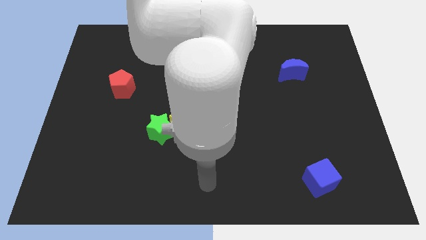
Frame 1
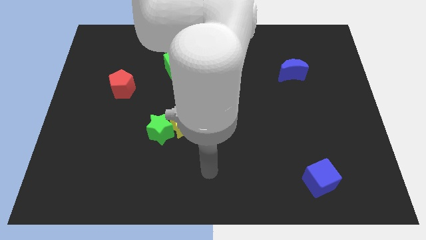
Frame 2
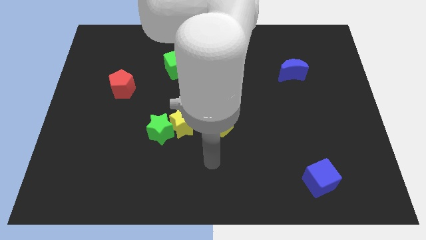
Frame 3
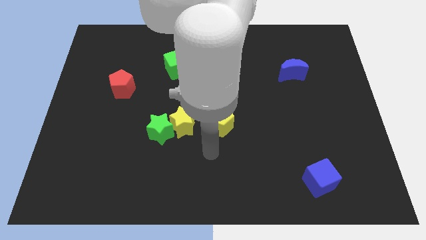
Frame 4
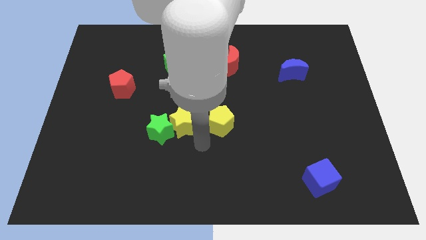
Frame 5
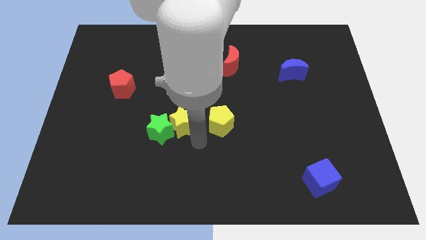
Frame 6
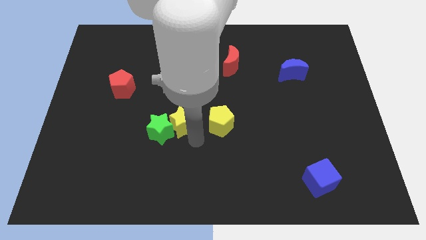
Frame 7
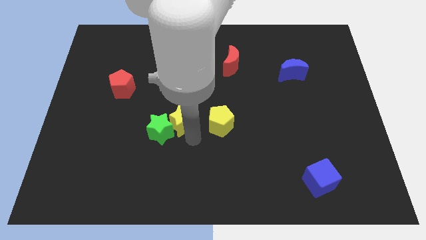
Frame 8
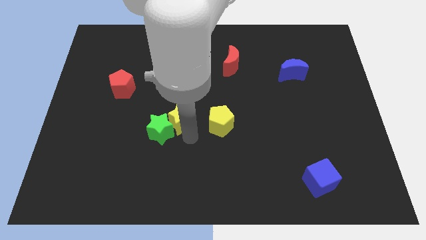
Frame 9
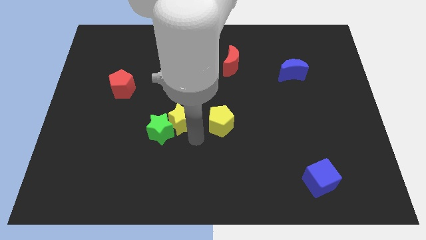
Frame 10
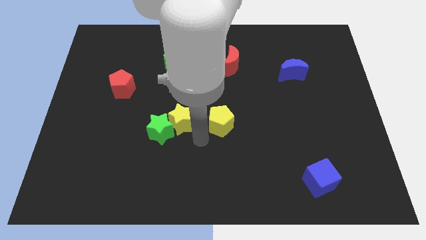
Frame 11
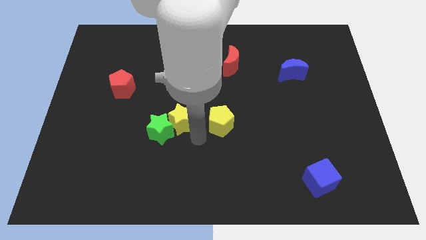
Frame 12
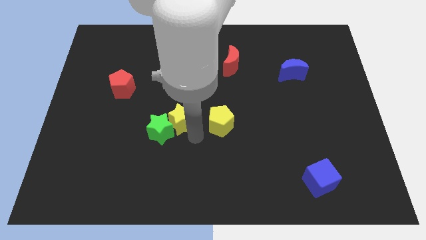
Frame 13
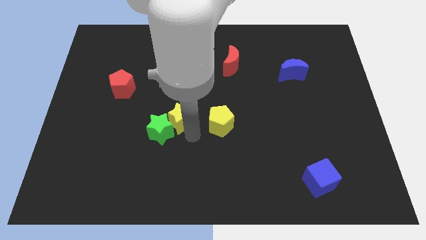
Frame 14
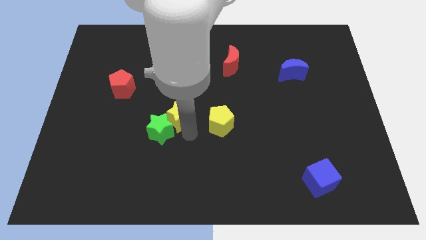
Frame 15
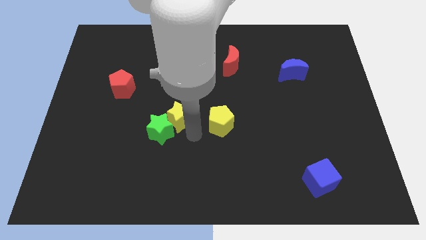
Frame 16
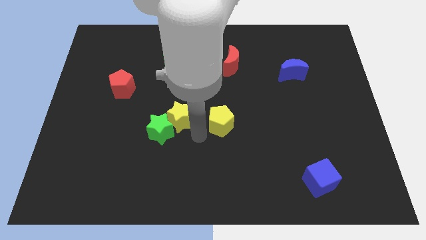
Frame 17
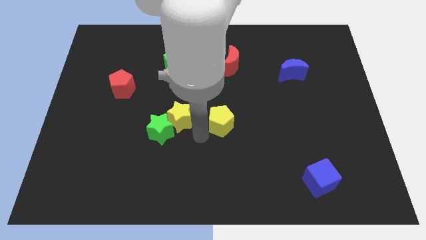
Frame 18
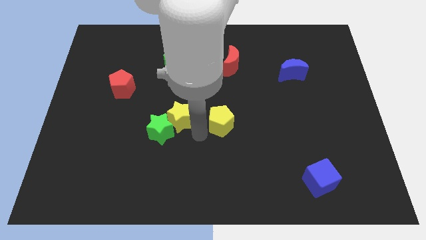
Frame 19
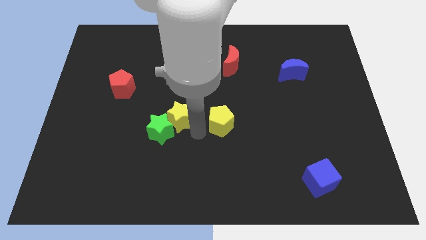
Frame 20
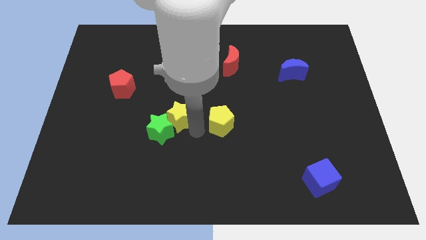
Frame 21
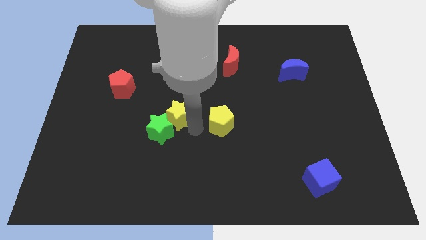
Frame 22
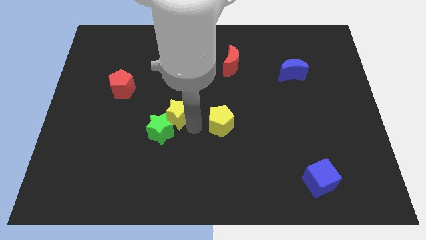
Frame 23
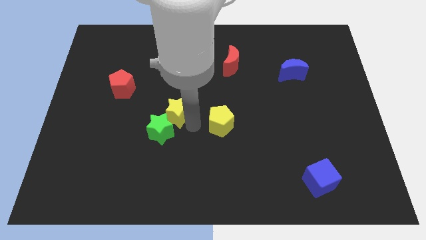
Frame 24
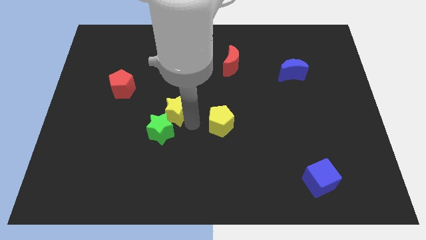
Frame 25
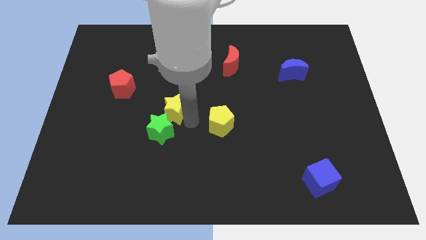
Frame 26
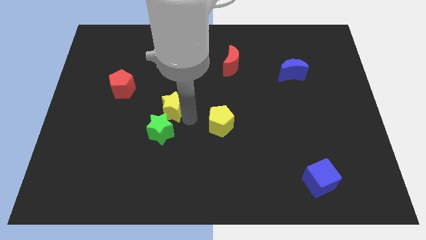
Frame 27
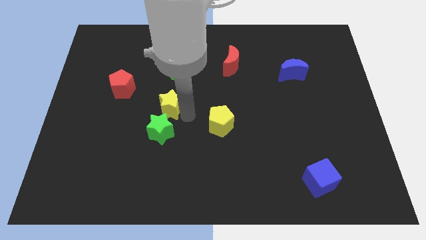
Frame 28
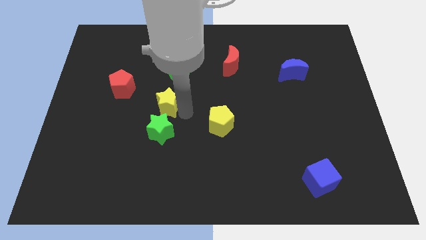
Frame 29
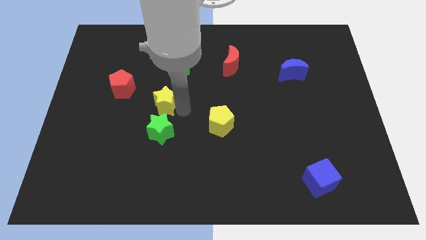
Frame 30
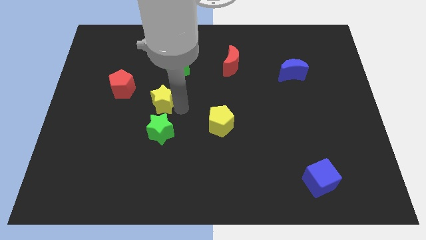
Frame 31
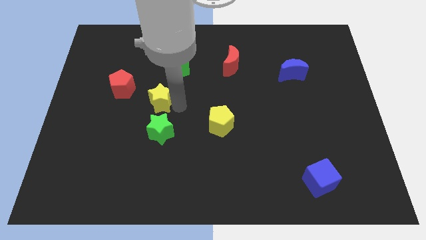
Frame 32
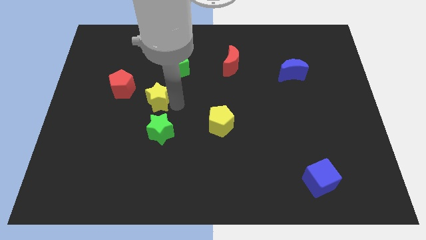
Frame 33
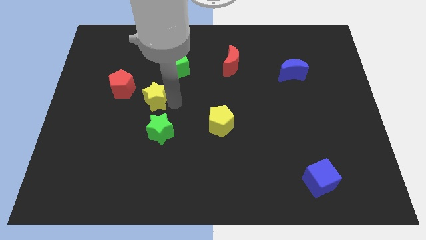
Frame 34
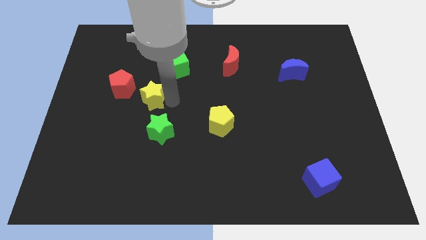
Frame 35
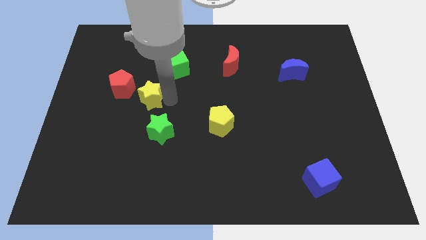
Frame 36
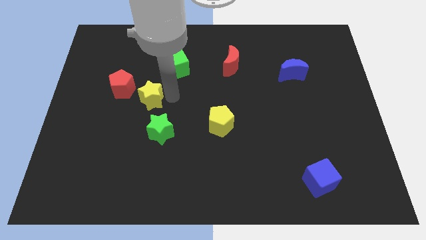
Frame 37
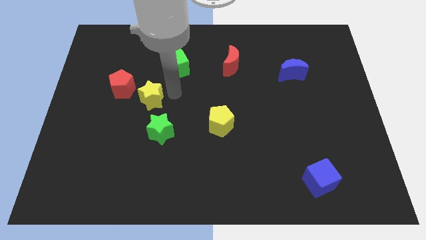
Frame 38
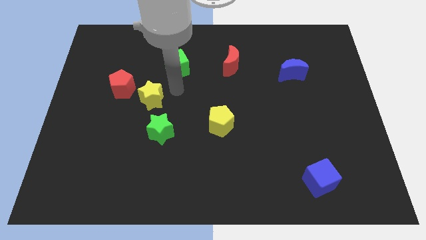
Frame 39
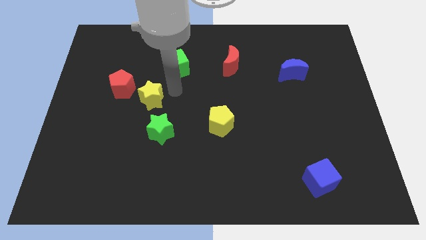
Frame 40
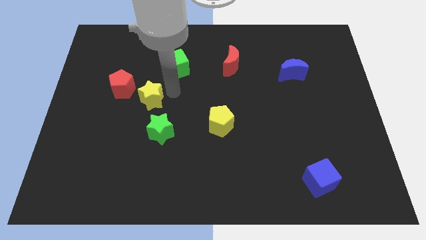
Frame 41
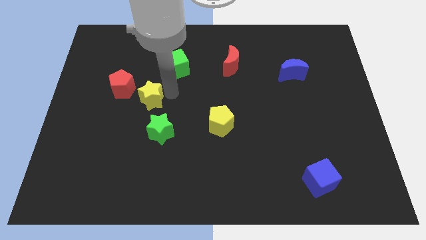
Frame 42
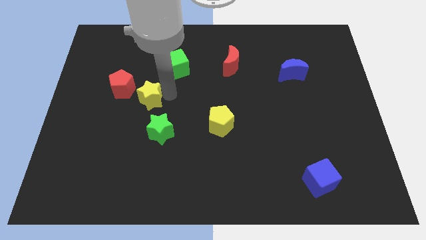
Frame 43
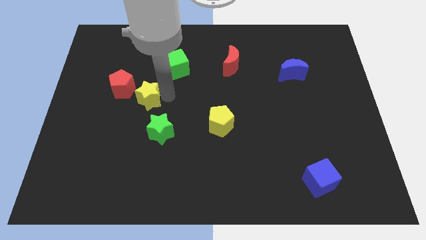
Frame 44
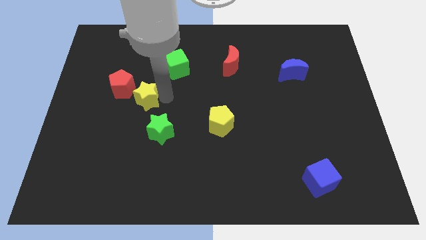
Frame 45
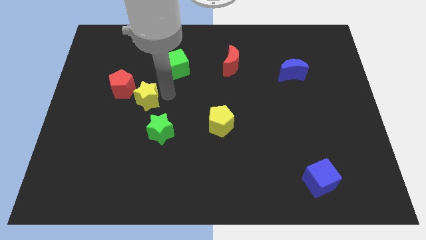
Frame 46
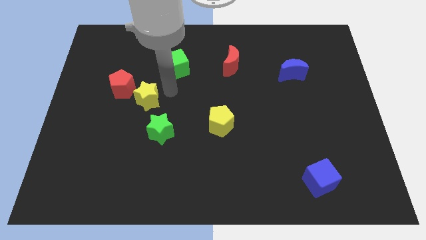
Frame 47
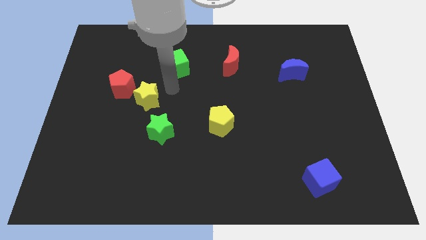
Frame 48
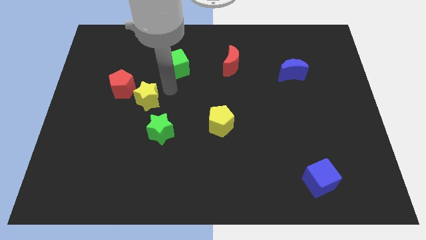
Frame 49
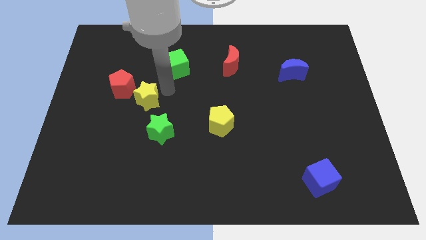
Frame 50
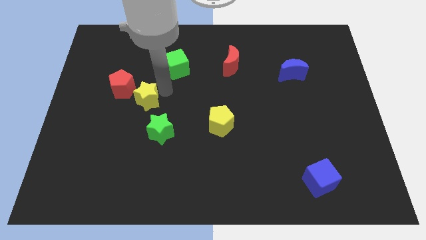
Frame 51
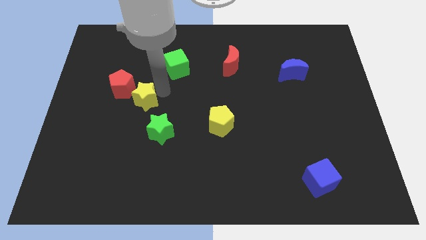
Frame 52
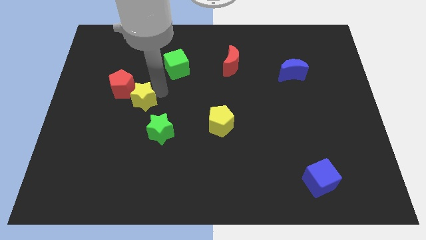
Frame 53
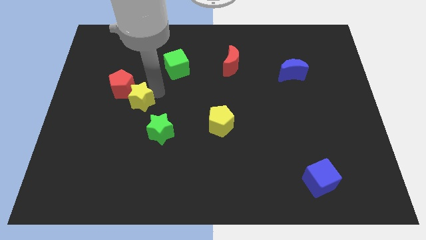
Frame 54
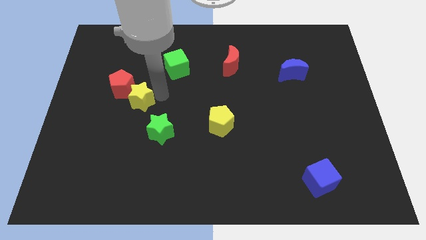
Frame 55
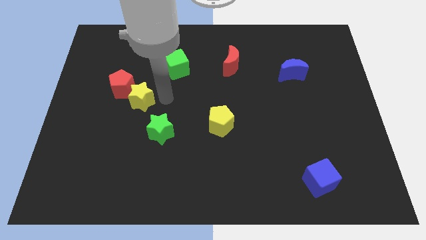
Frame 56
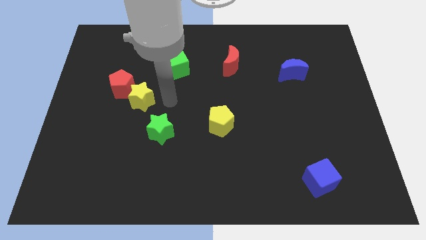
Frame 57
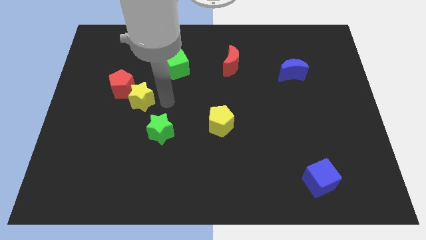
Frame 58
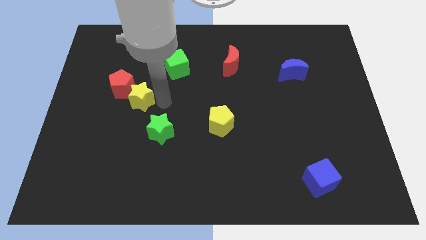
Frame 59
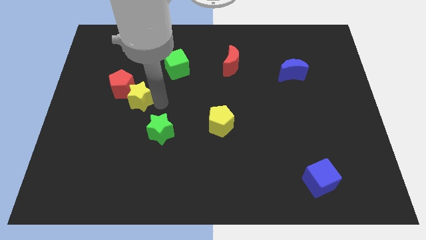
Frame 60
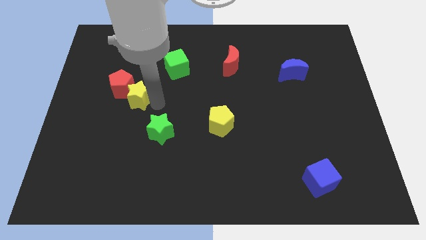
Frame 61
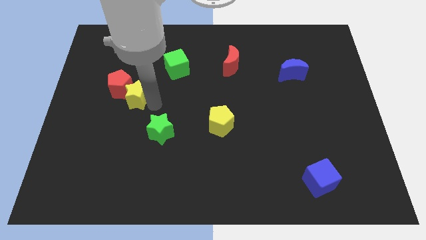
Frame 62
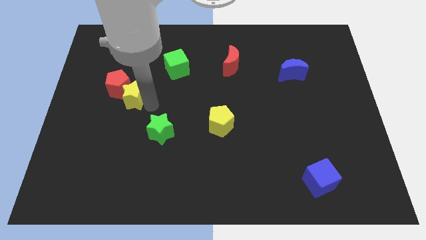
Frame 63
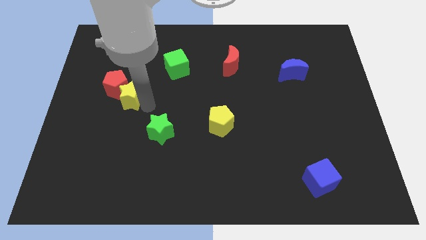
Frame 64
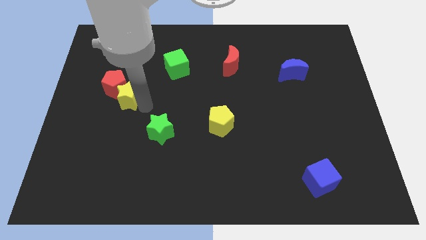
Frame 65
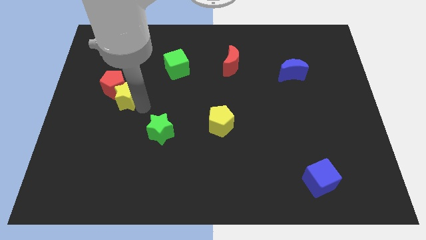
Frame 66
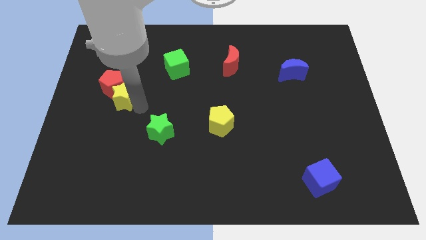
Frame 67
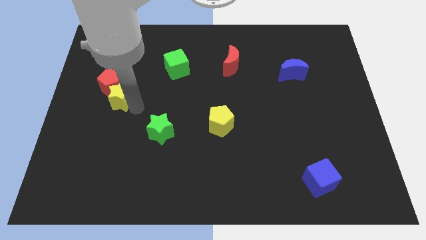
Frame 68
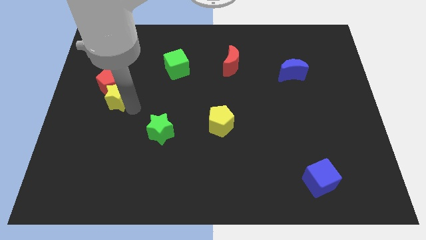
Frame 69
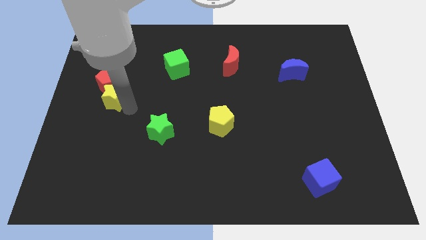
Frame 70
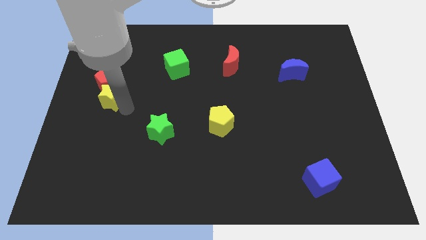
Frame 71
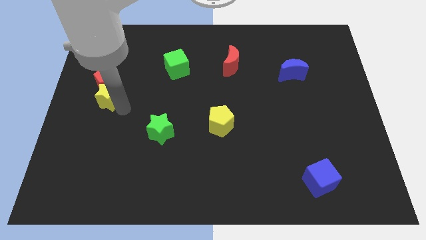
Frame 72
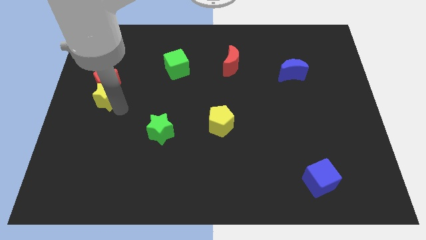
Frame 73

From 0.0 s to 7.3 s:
push the yellow star to the left side of the board
